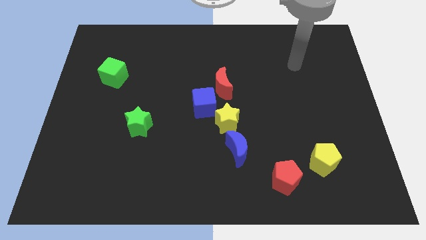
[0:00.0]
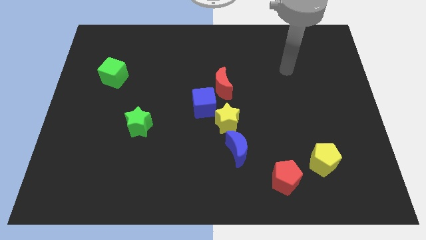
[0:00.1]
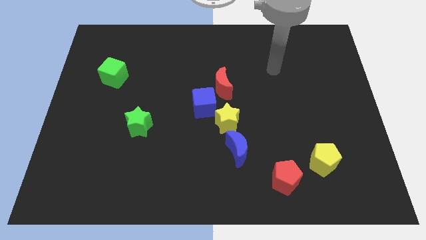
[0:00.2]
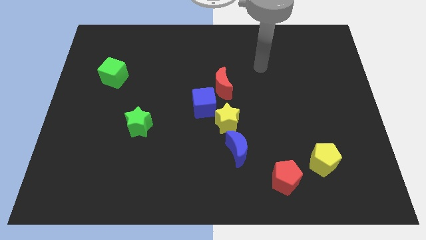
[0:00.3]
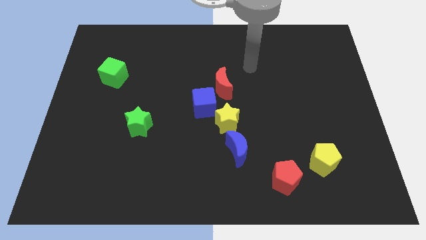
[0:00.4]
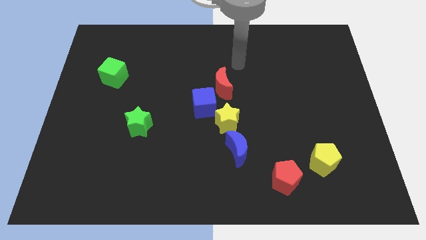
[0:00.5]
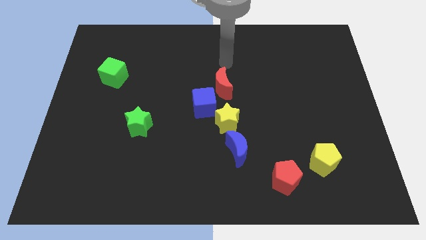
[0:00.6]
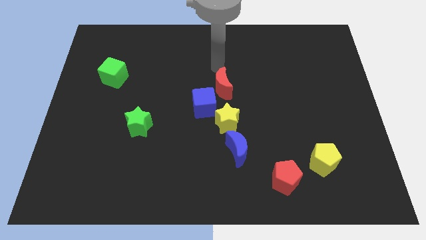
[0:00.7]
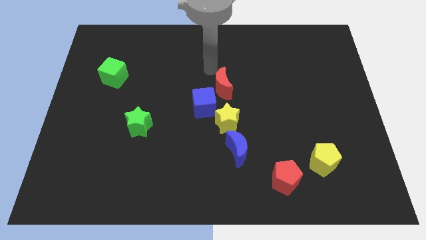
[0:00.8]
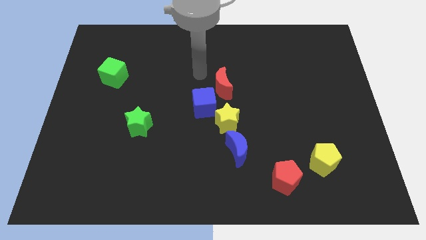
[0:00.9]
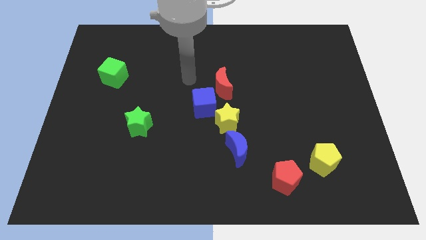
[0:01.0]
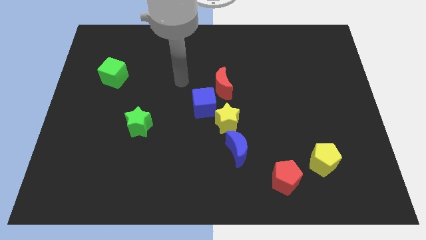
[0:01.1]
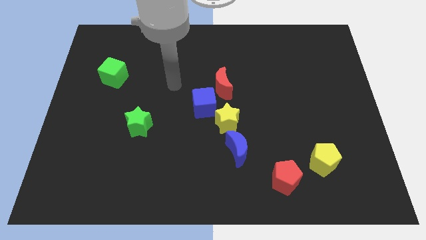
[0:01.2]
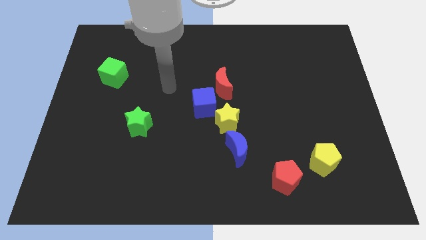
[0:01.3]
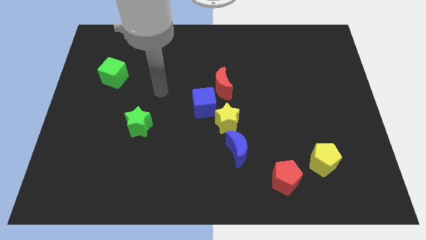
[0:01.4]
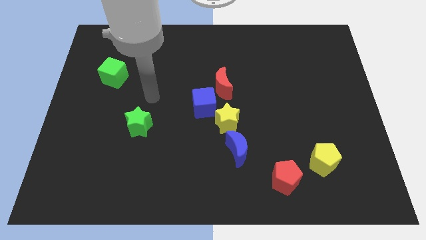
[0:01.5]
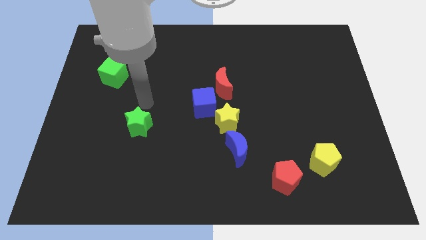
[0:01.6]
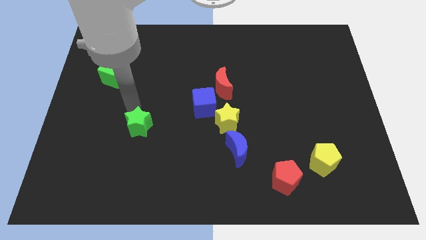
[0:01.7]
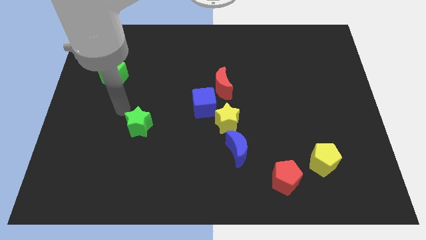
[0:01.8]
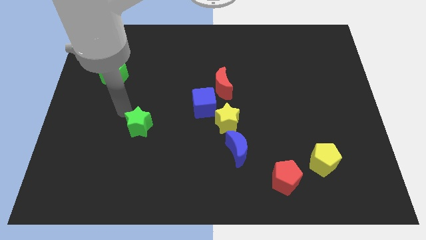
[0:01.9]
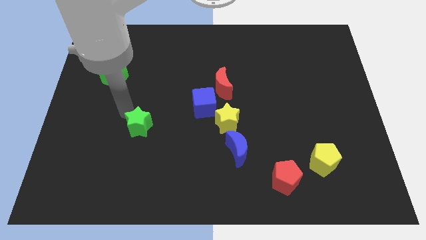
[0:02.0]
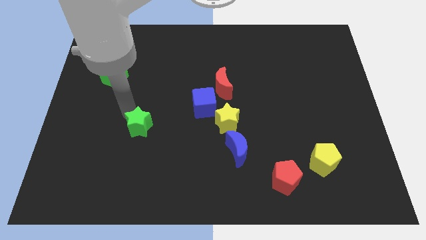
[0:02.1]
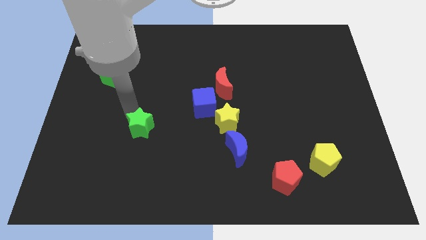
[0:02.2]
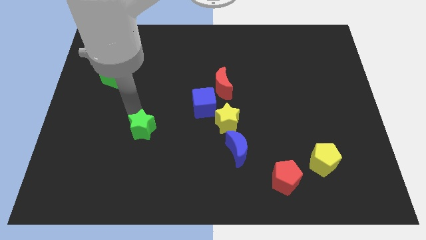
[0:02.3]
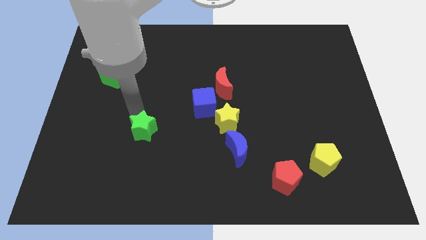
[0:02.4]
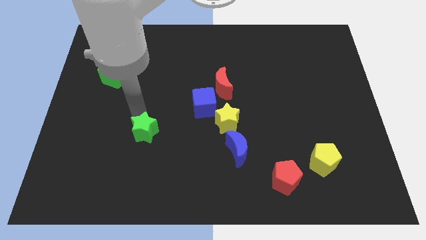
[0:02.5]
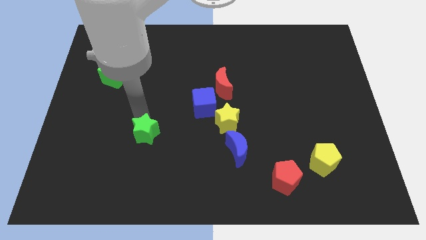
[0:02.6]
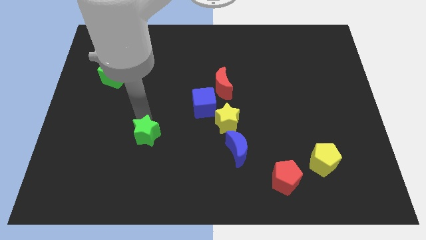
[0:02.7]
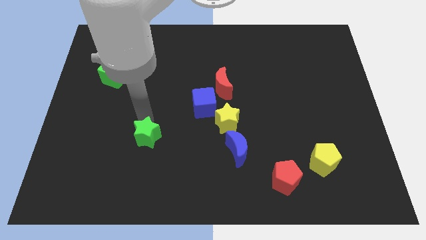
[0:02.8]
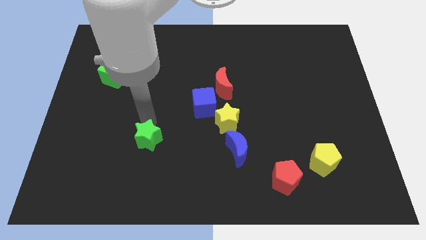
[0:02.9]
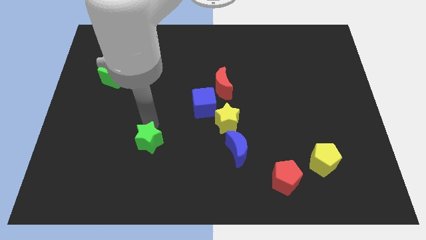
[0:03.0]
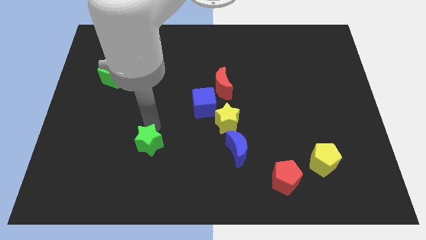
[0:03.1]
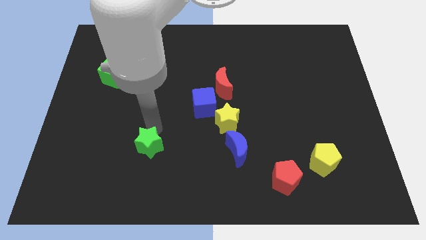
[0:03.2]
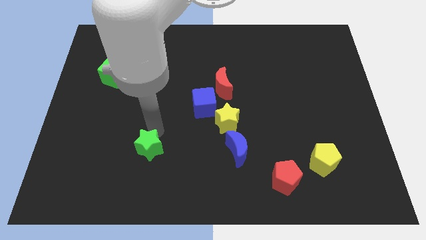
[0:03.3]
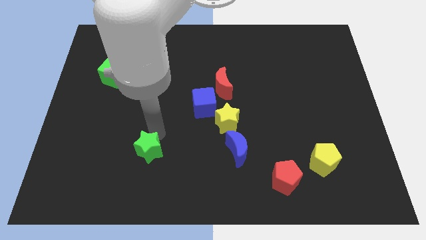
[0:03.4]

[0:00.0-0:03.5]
push the green star slightly down and to the right

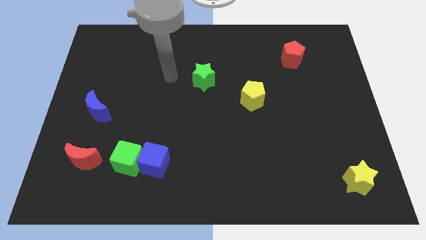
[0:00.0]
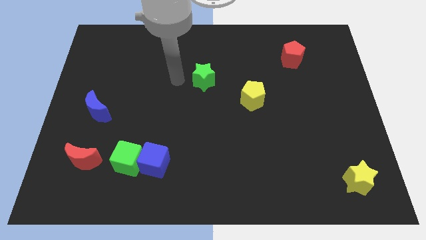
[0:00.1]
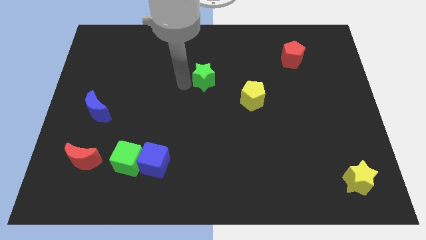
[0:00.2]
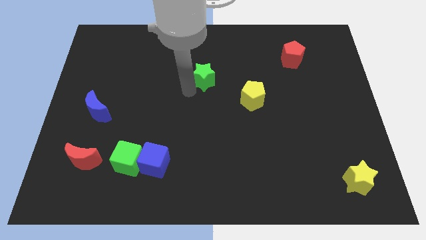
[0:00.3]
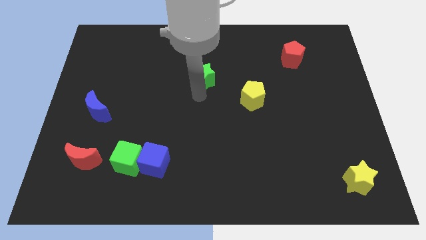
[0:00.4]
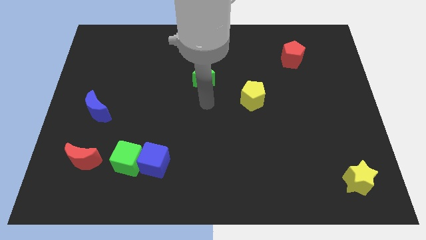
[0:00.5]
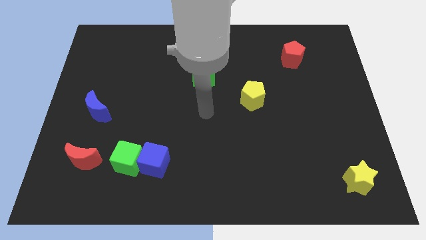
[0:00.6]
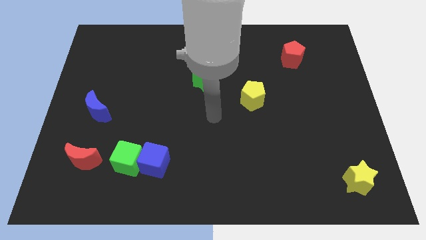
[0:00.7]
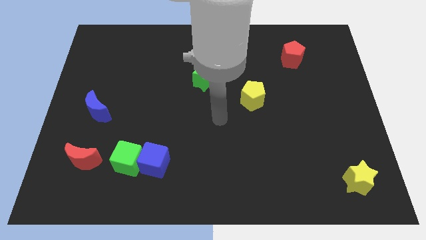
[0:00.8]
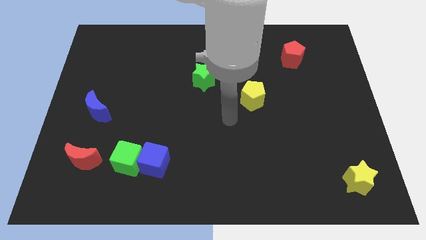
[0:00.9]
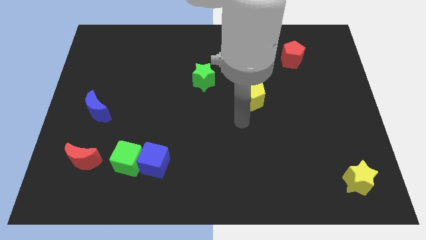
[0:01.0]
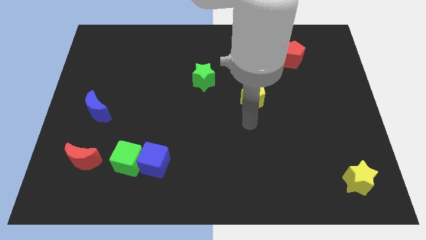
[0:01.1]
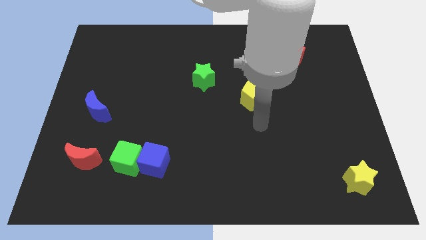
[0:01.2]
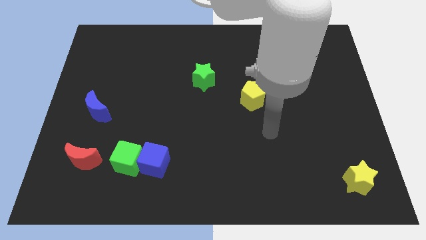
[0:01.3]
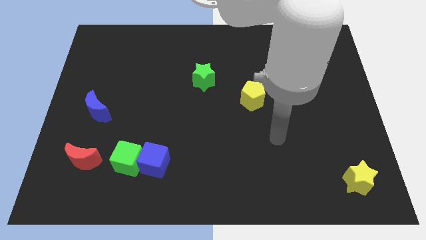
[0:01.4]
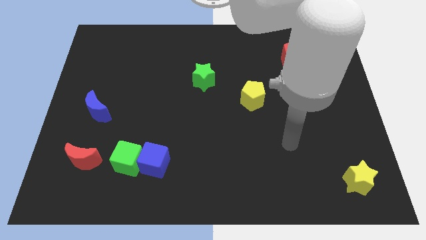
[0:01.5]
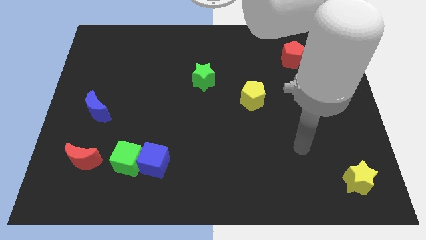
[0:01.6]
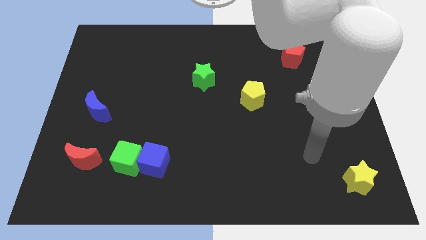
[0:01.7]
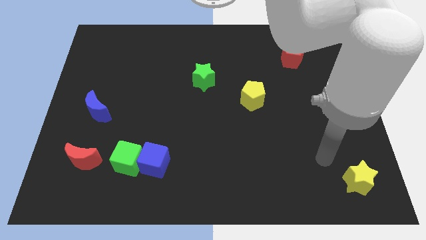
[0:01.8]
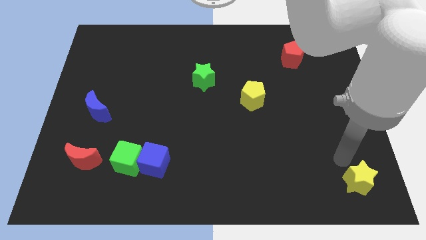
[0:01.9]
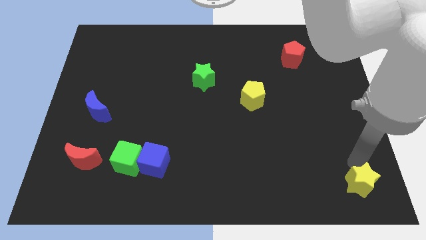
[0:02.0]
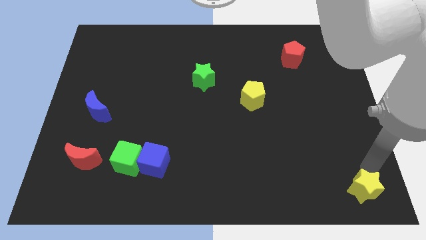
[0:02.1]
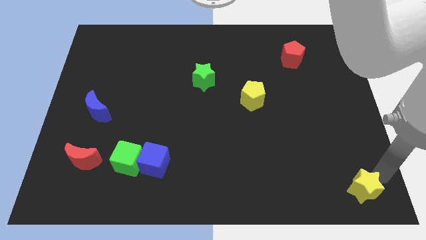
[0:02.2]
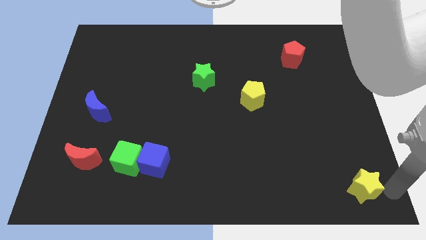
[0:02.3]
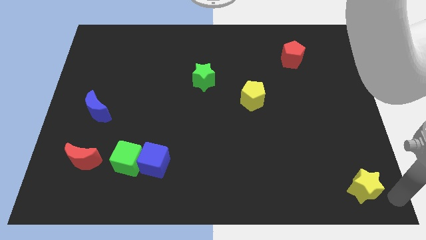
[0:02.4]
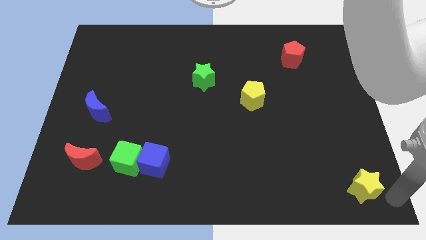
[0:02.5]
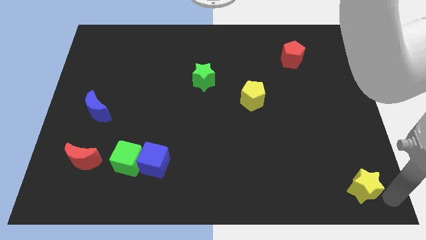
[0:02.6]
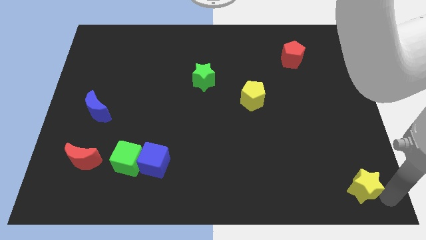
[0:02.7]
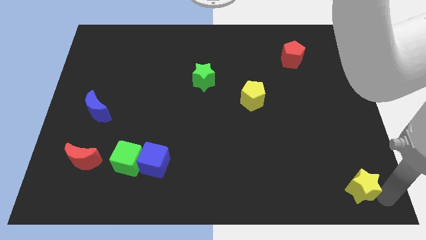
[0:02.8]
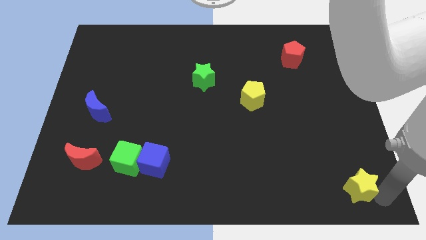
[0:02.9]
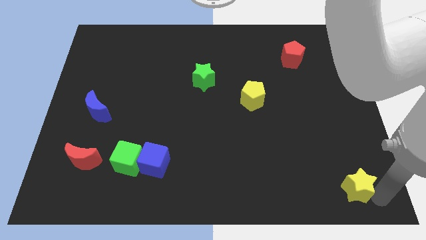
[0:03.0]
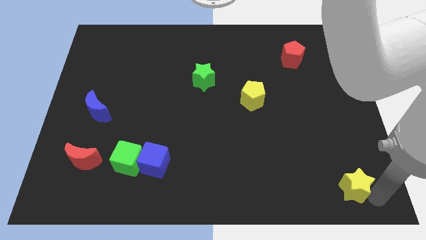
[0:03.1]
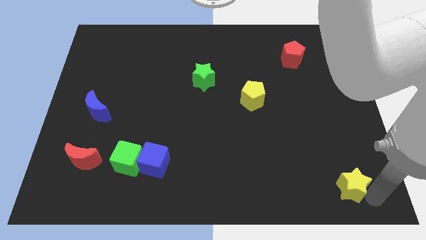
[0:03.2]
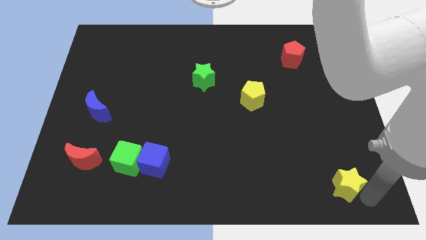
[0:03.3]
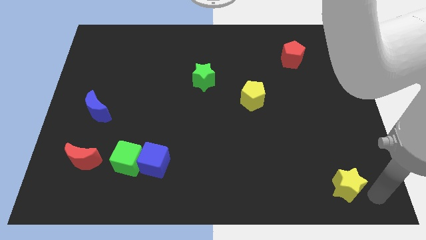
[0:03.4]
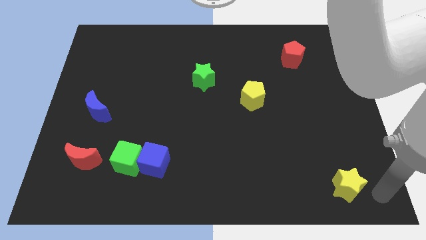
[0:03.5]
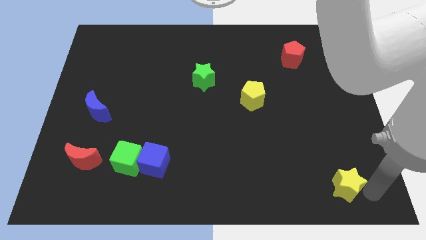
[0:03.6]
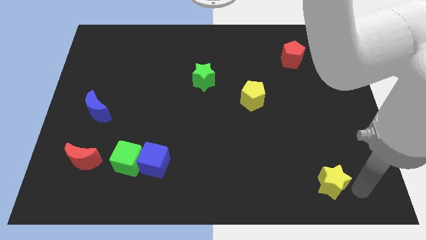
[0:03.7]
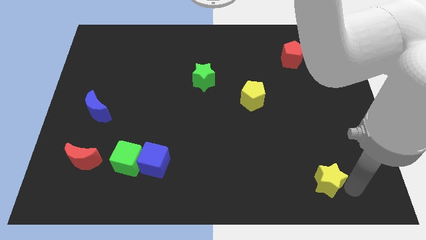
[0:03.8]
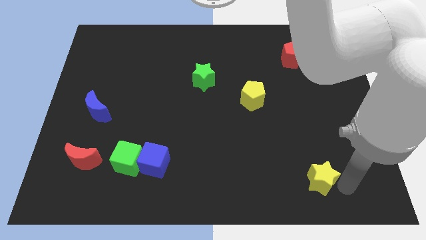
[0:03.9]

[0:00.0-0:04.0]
push the yellow star somewhat left

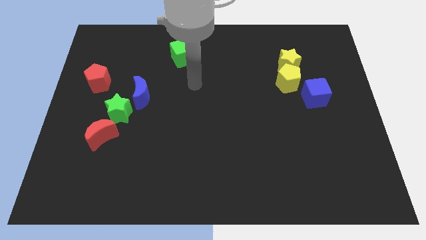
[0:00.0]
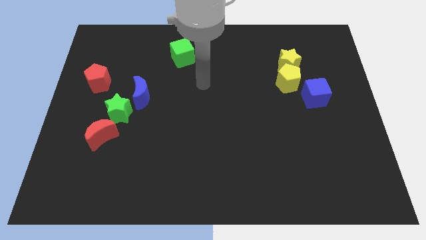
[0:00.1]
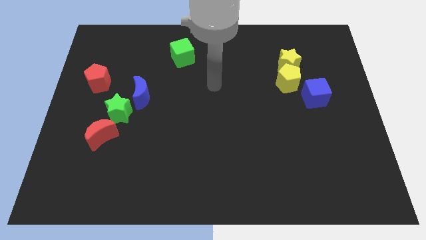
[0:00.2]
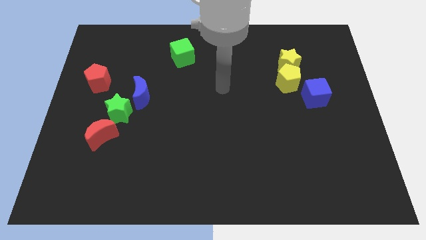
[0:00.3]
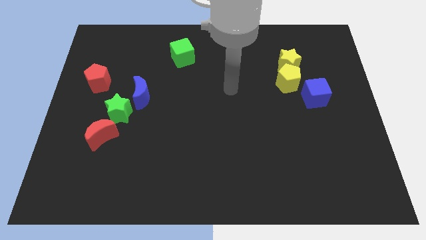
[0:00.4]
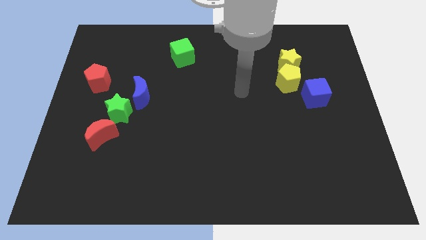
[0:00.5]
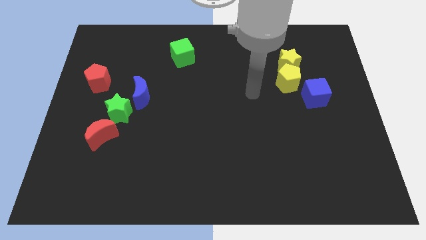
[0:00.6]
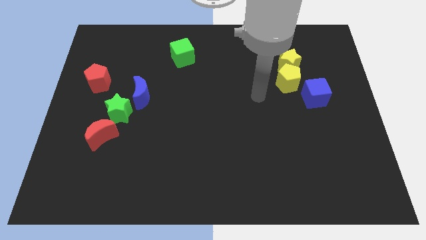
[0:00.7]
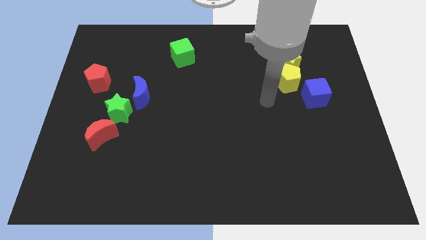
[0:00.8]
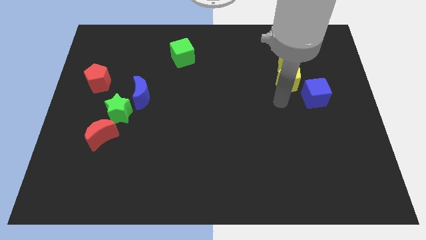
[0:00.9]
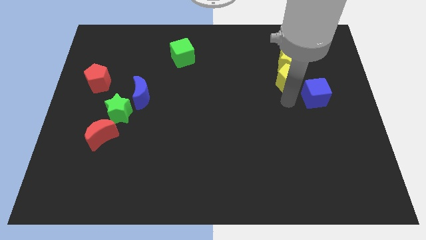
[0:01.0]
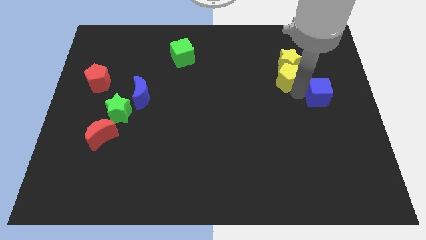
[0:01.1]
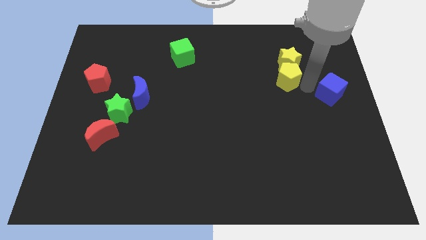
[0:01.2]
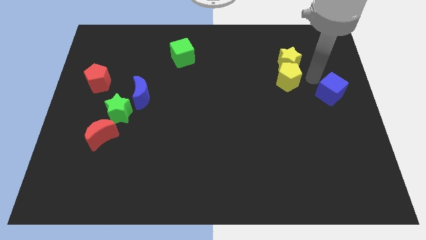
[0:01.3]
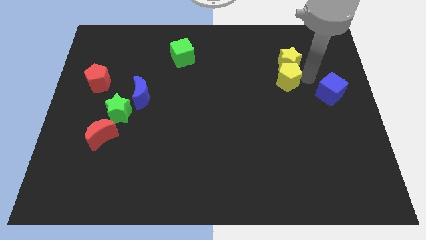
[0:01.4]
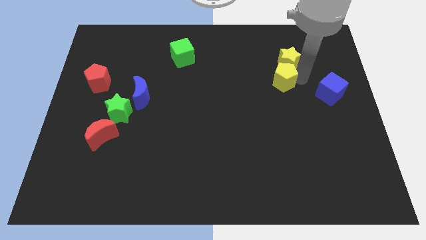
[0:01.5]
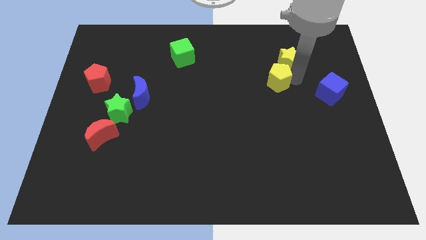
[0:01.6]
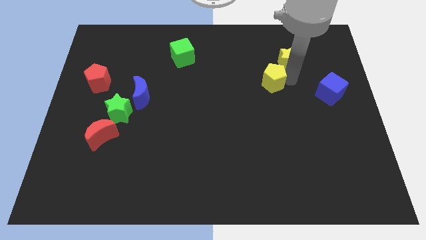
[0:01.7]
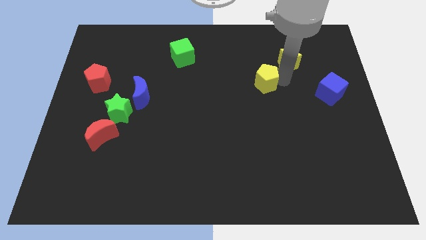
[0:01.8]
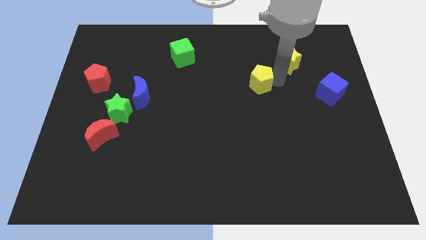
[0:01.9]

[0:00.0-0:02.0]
slide the yellow pentagon left a little bit
